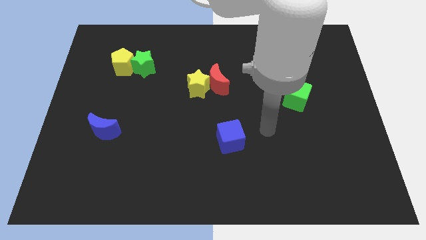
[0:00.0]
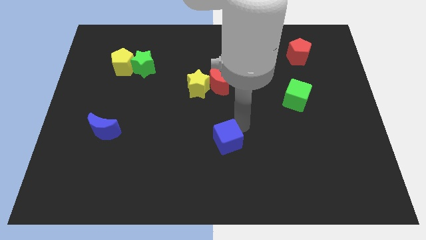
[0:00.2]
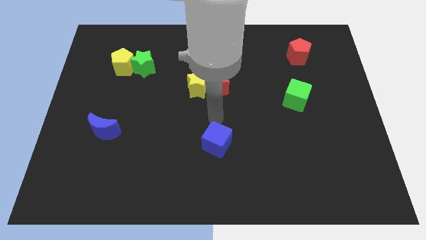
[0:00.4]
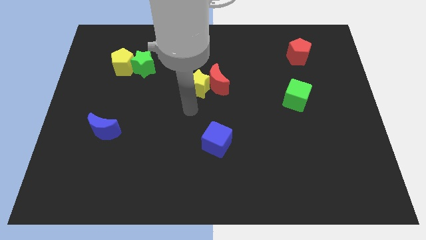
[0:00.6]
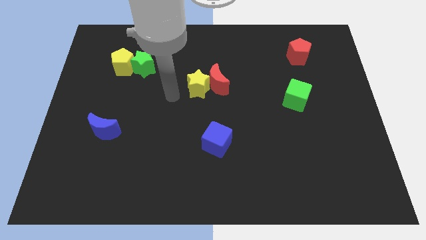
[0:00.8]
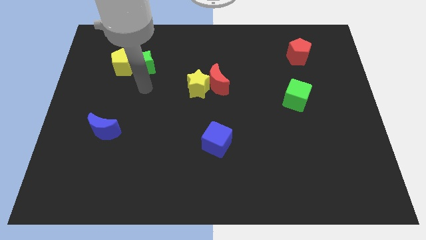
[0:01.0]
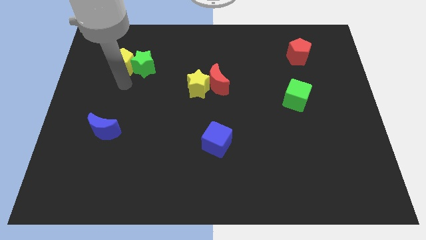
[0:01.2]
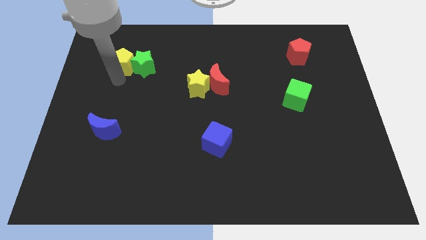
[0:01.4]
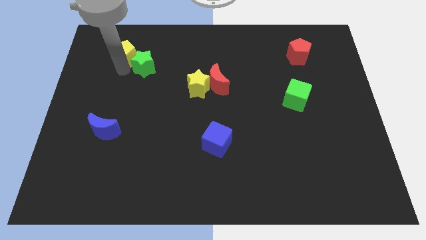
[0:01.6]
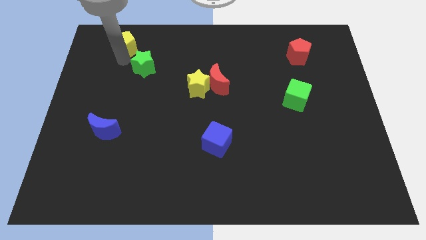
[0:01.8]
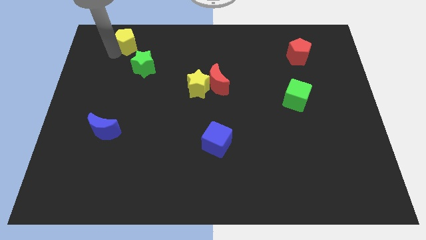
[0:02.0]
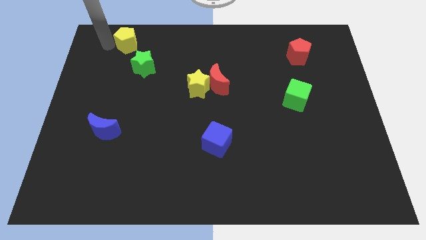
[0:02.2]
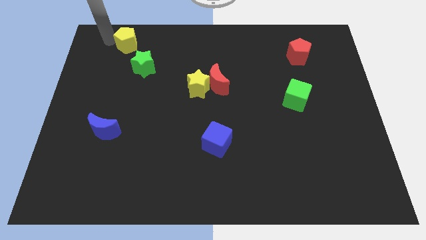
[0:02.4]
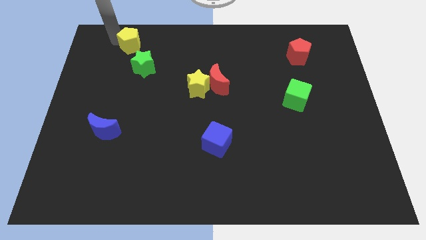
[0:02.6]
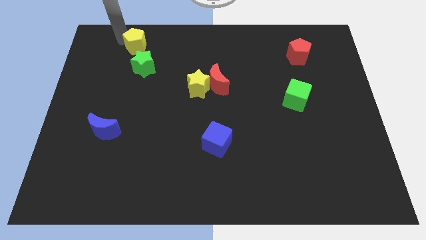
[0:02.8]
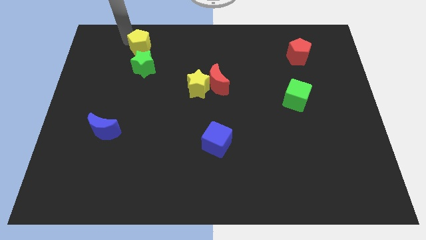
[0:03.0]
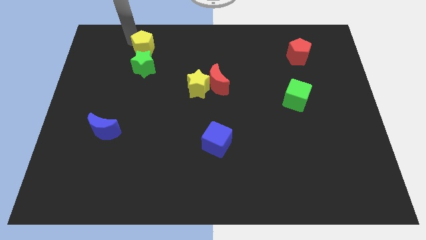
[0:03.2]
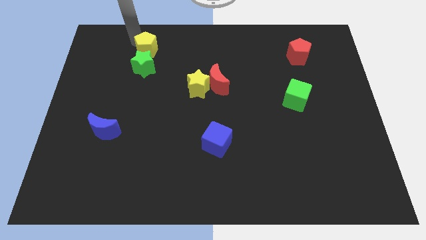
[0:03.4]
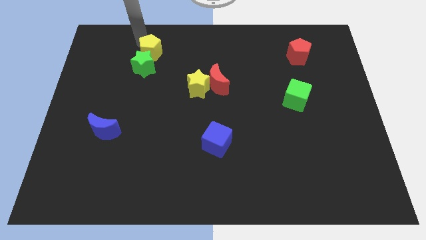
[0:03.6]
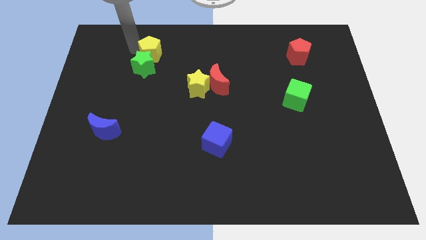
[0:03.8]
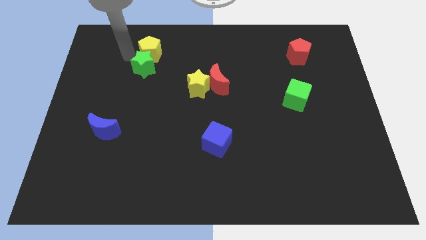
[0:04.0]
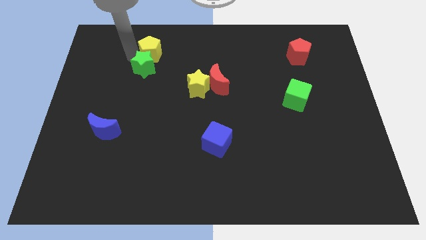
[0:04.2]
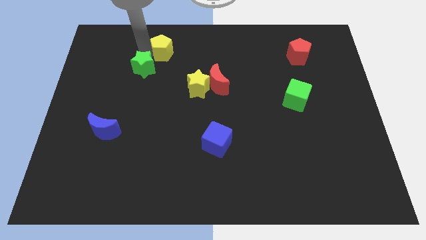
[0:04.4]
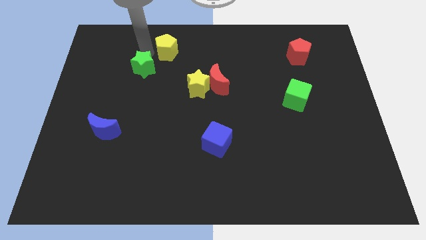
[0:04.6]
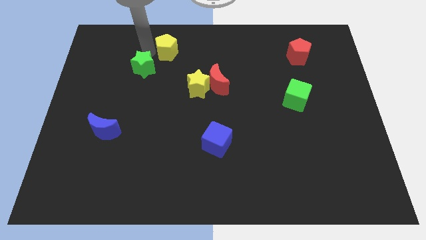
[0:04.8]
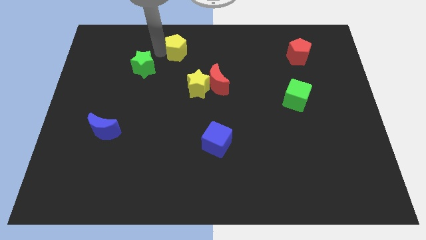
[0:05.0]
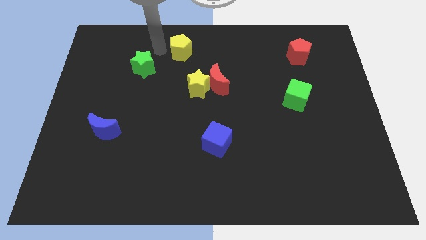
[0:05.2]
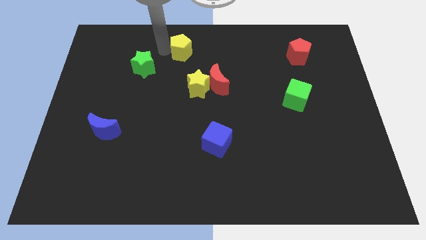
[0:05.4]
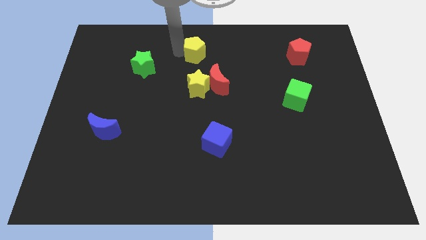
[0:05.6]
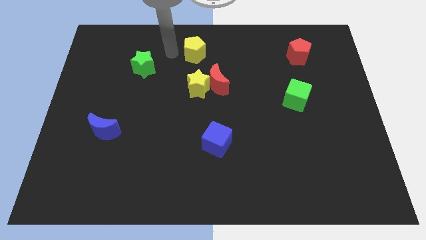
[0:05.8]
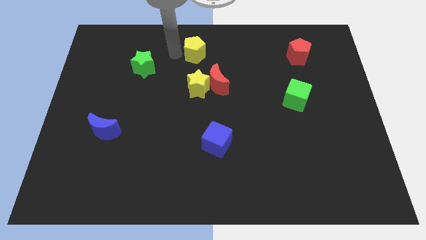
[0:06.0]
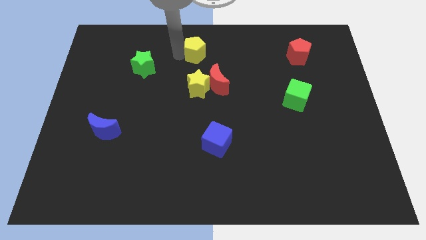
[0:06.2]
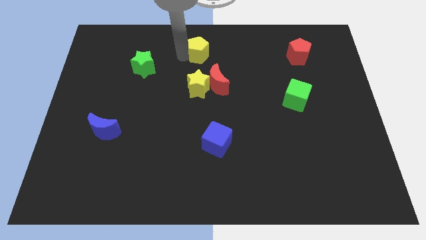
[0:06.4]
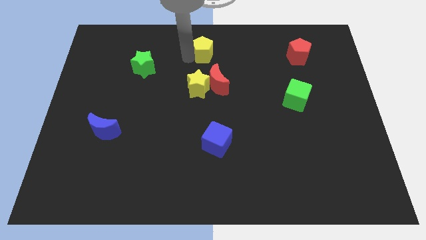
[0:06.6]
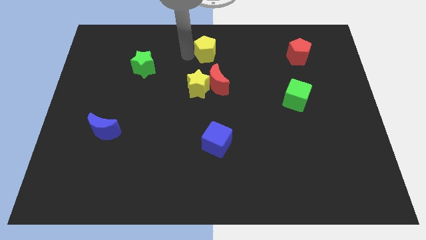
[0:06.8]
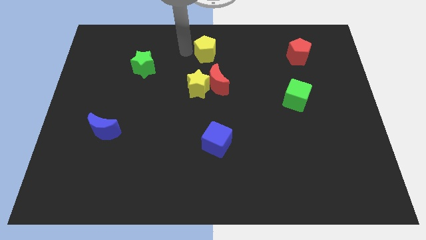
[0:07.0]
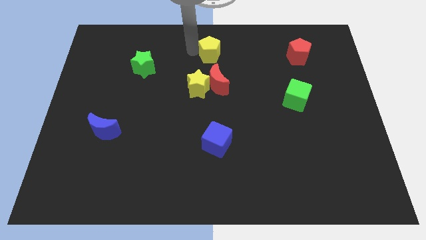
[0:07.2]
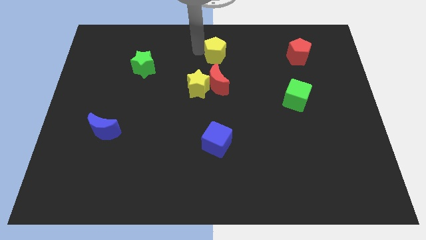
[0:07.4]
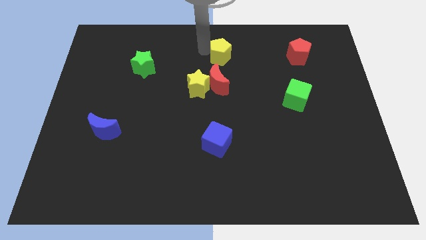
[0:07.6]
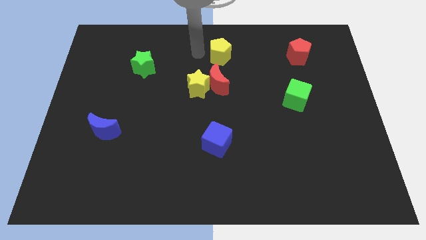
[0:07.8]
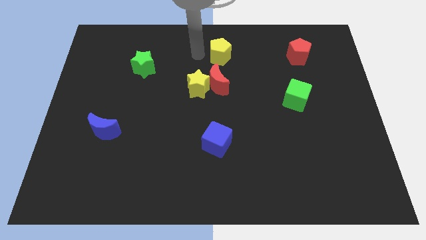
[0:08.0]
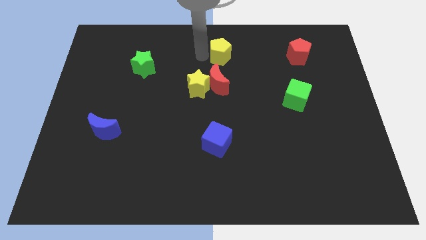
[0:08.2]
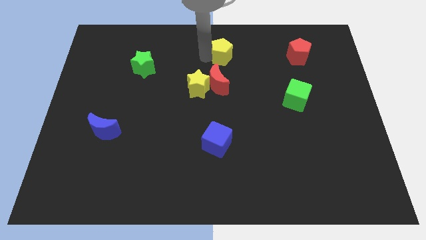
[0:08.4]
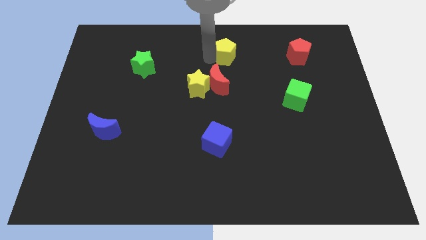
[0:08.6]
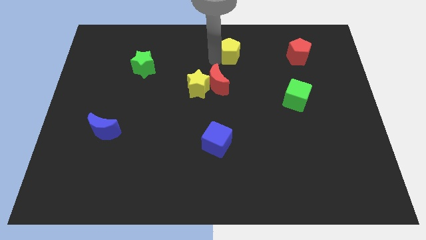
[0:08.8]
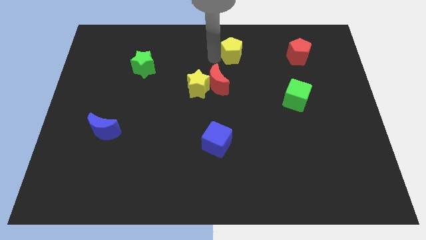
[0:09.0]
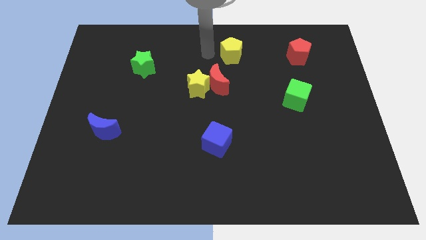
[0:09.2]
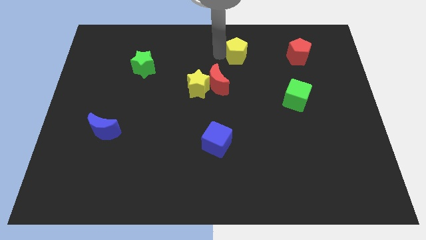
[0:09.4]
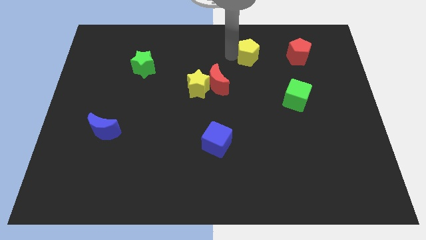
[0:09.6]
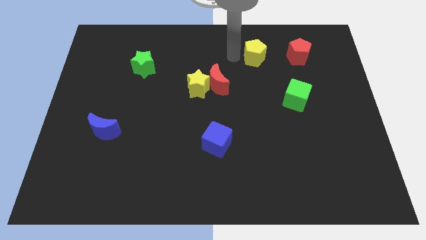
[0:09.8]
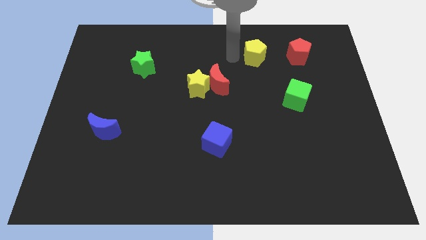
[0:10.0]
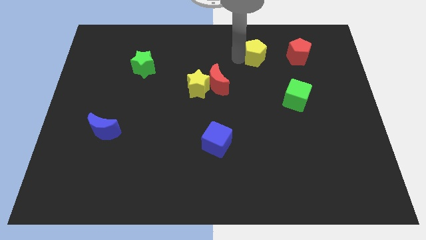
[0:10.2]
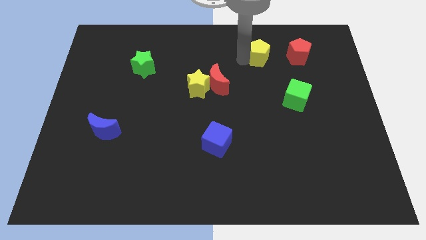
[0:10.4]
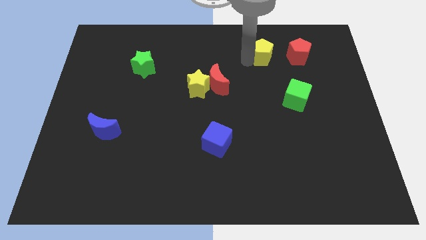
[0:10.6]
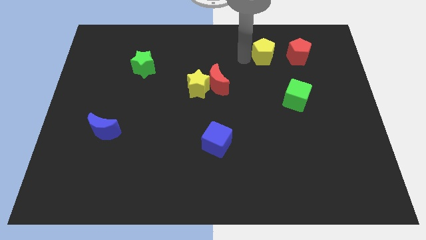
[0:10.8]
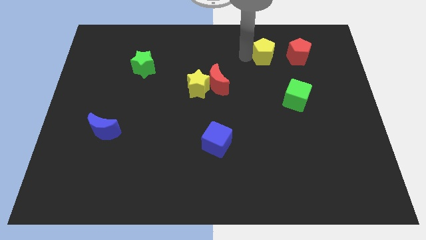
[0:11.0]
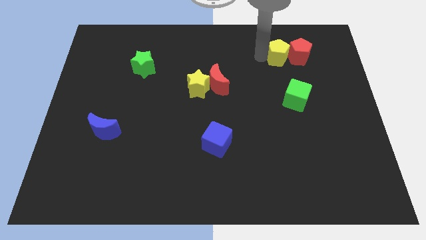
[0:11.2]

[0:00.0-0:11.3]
put the yellow pentagon next to the red pentagon
